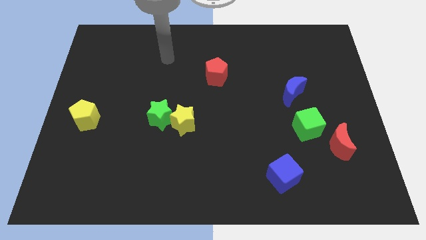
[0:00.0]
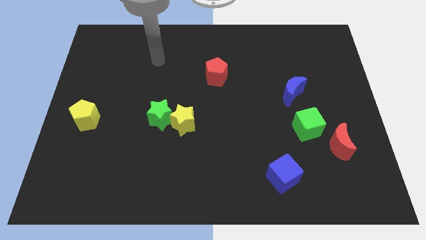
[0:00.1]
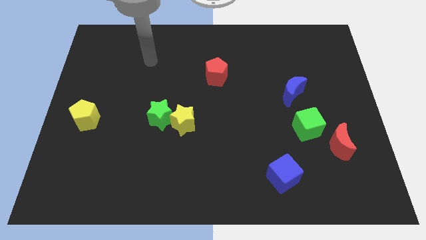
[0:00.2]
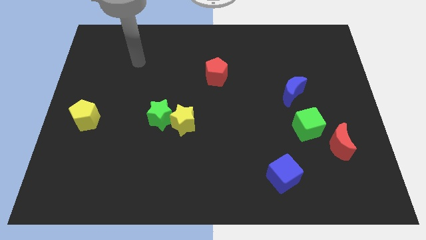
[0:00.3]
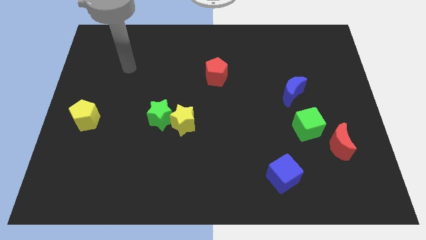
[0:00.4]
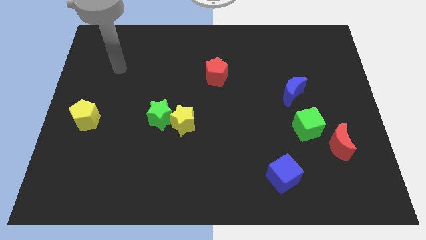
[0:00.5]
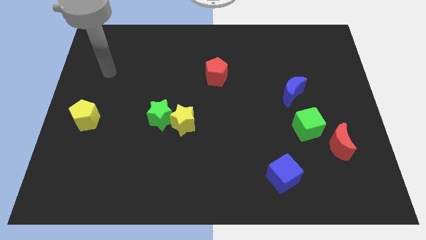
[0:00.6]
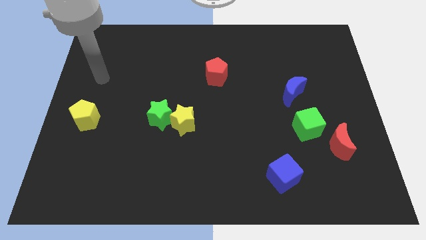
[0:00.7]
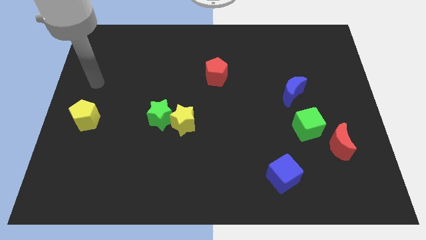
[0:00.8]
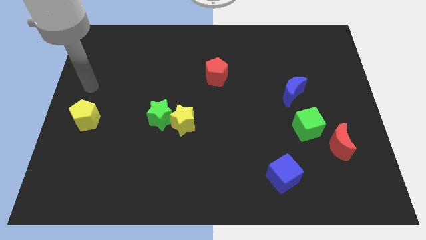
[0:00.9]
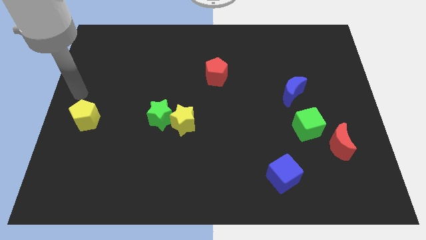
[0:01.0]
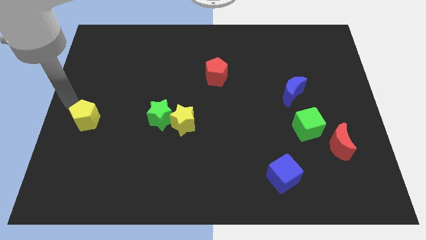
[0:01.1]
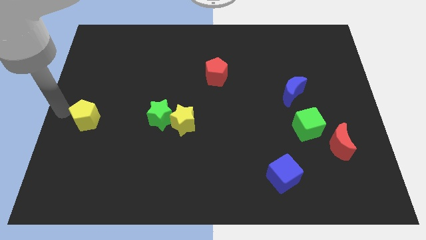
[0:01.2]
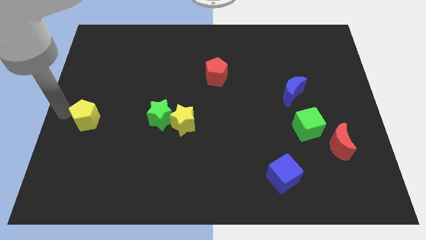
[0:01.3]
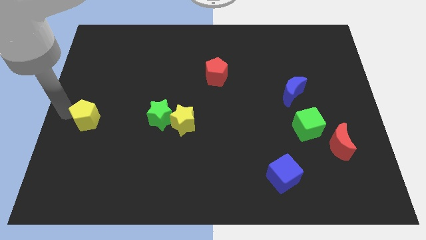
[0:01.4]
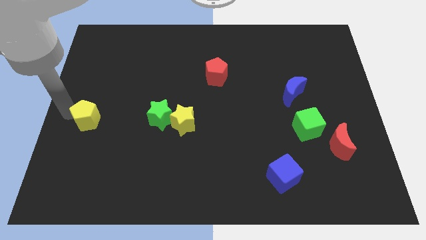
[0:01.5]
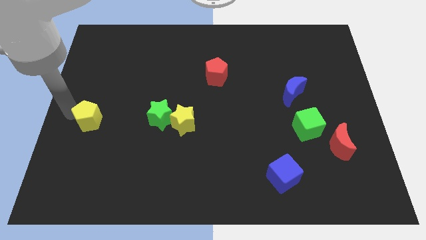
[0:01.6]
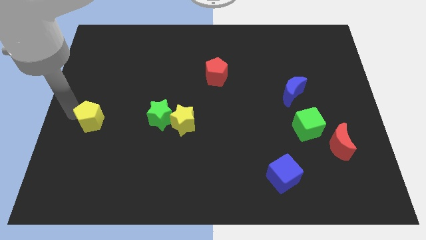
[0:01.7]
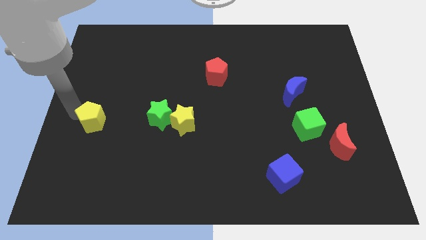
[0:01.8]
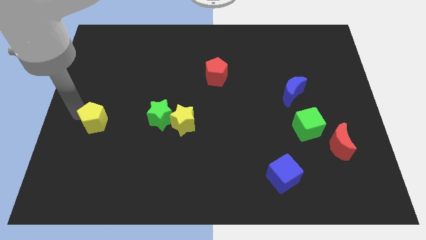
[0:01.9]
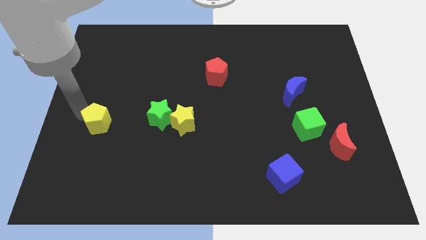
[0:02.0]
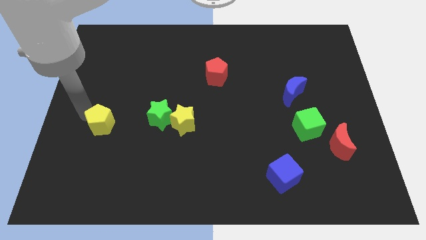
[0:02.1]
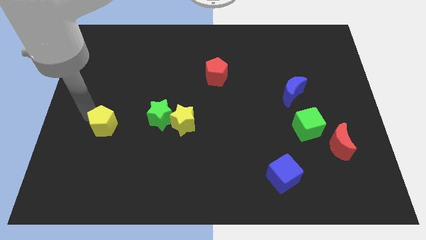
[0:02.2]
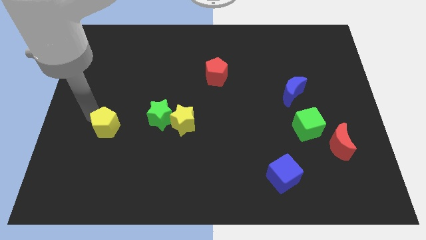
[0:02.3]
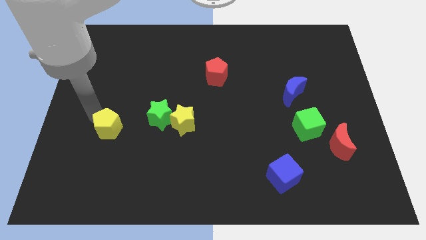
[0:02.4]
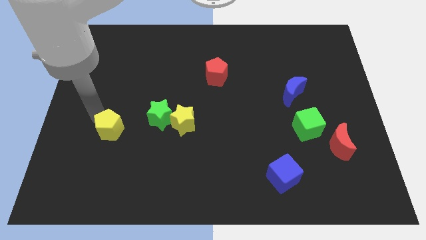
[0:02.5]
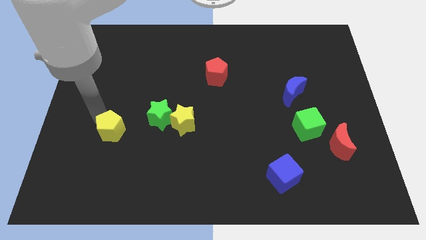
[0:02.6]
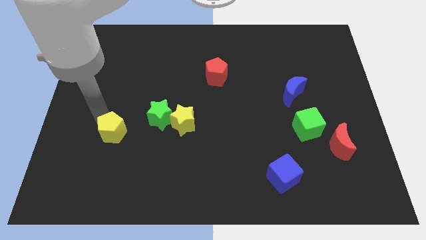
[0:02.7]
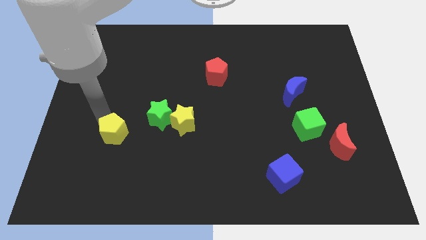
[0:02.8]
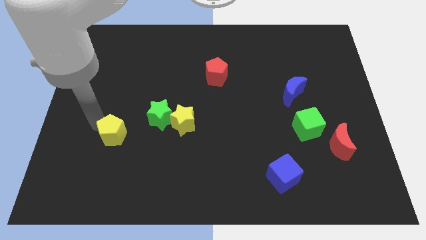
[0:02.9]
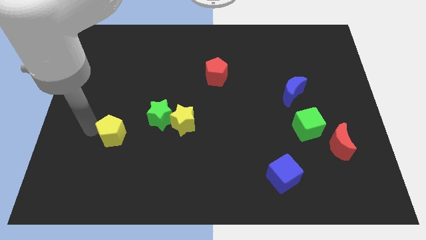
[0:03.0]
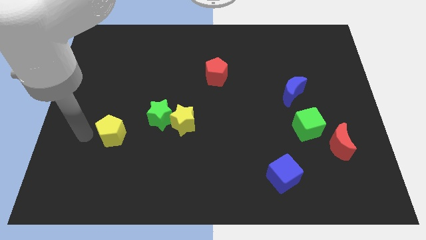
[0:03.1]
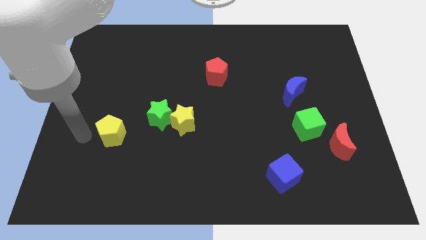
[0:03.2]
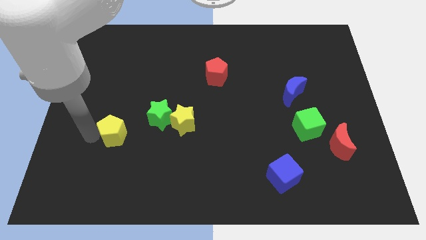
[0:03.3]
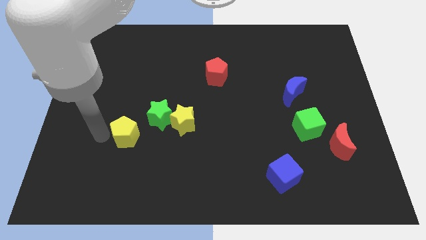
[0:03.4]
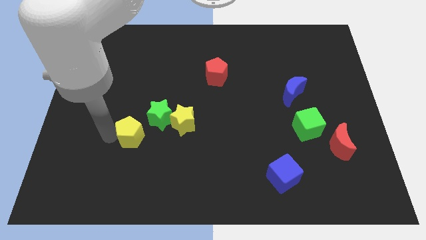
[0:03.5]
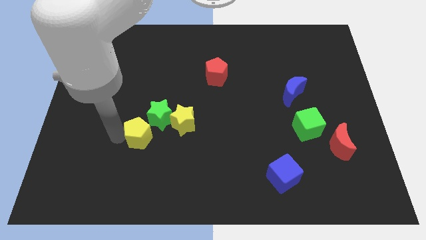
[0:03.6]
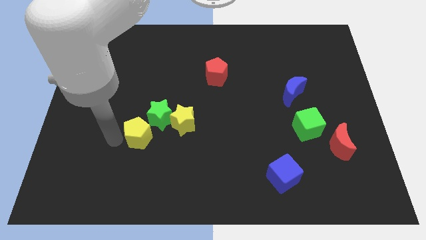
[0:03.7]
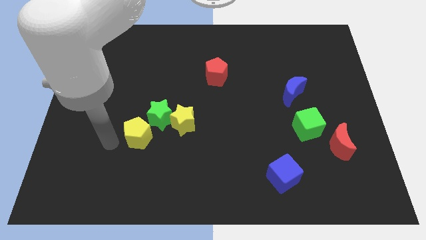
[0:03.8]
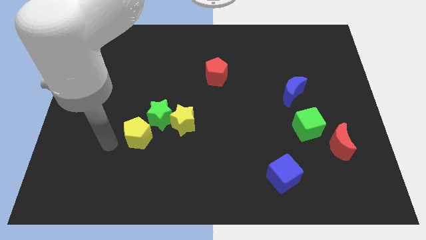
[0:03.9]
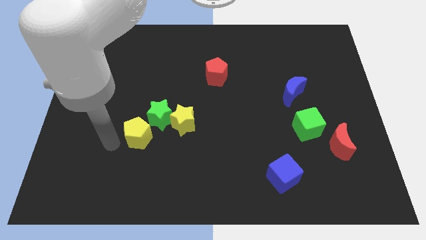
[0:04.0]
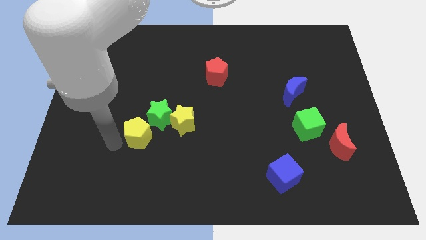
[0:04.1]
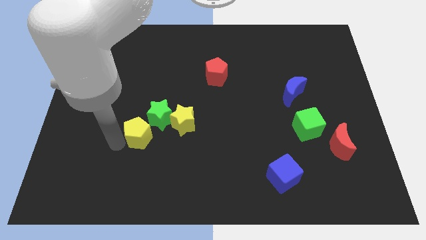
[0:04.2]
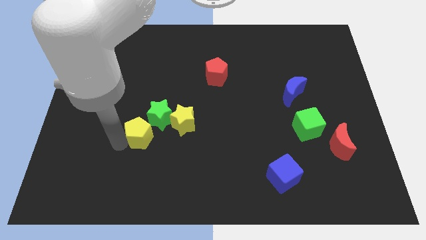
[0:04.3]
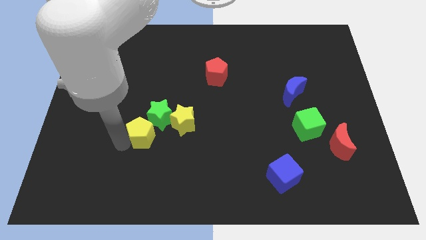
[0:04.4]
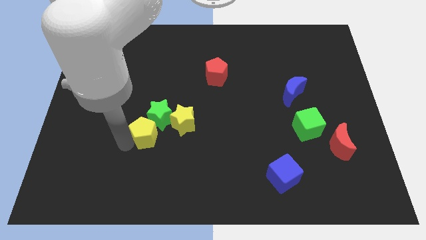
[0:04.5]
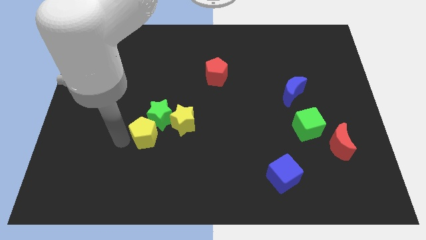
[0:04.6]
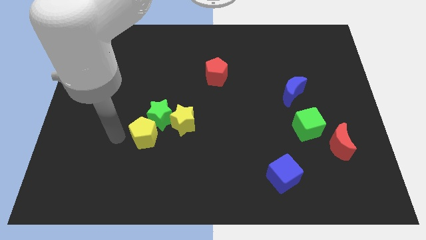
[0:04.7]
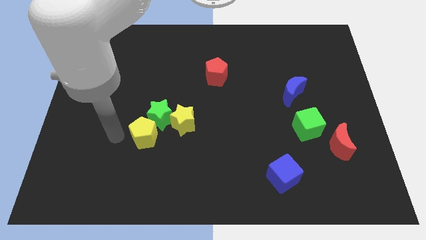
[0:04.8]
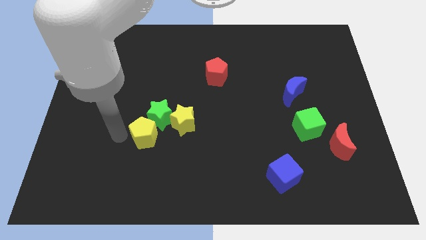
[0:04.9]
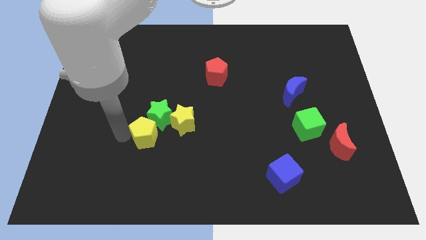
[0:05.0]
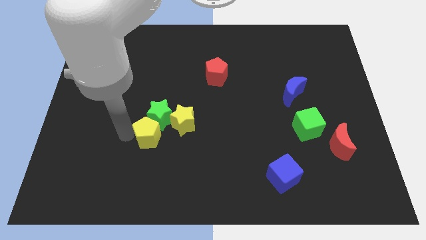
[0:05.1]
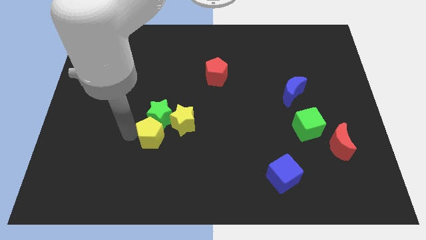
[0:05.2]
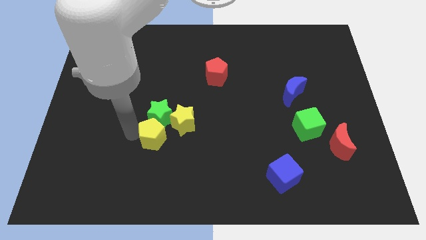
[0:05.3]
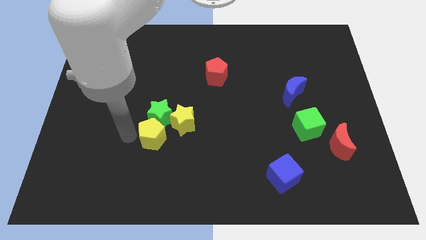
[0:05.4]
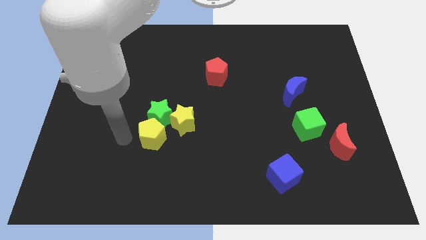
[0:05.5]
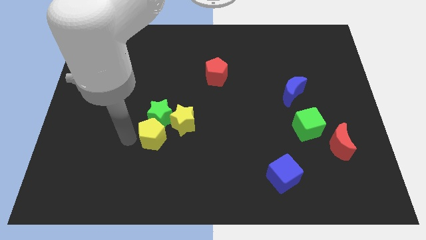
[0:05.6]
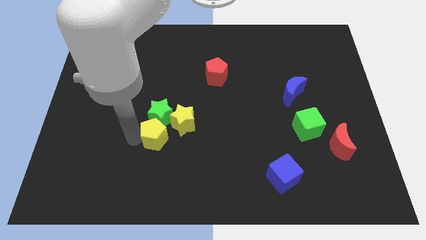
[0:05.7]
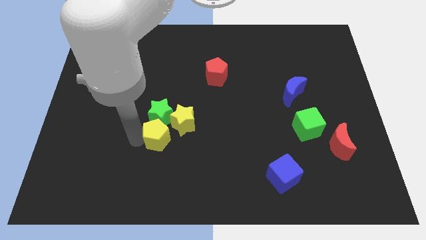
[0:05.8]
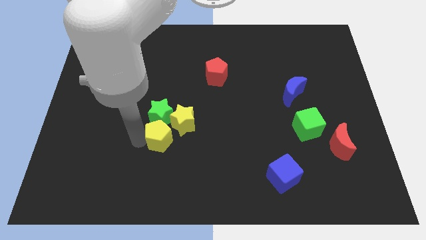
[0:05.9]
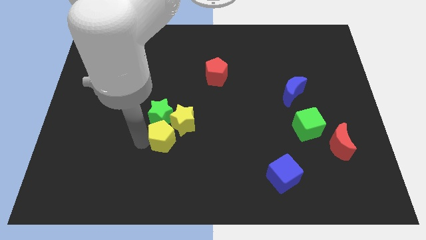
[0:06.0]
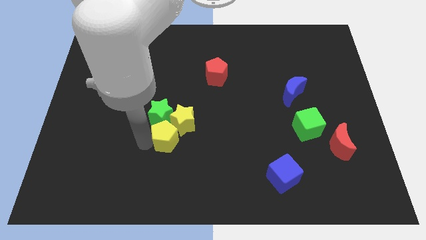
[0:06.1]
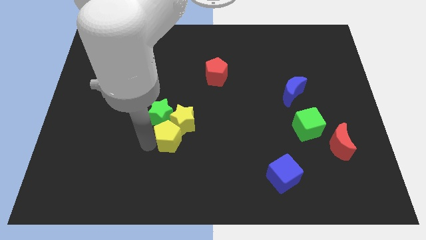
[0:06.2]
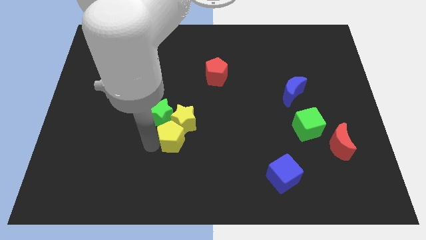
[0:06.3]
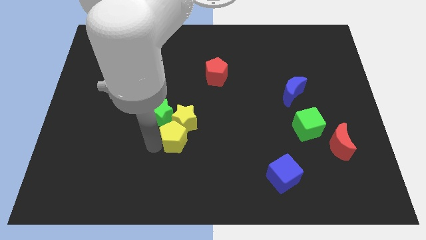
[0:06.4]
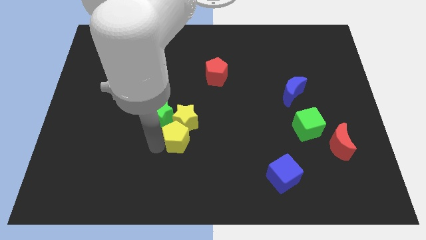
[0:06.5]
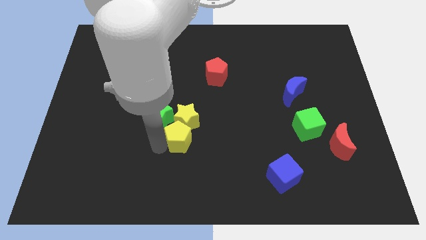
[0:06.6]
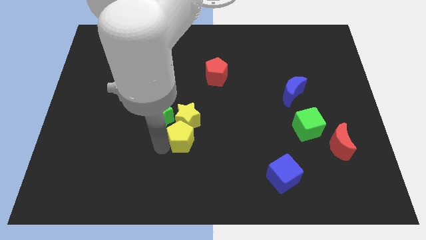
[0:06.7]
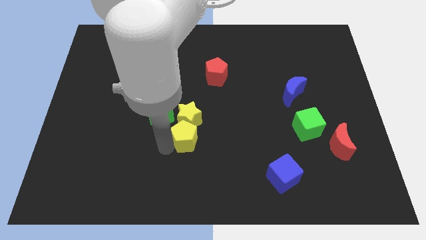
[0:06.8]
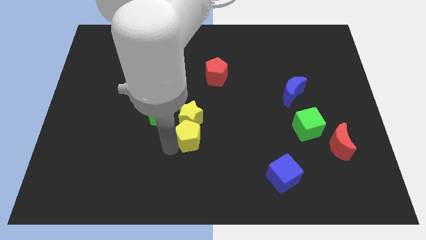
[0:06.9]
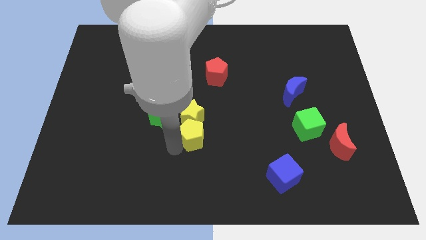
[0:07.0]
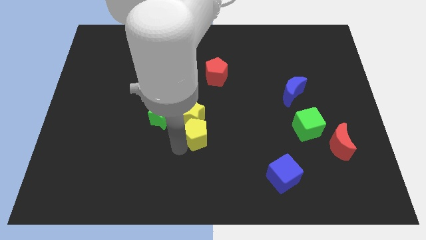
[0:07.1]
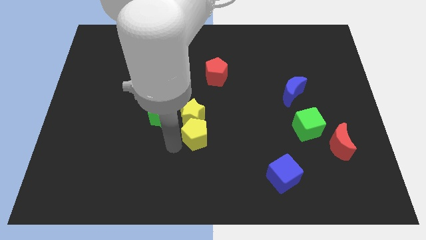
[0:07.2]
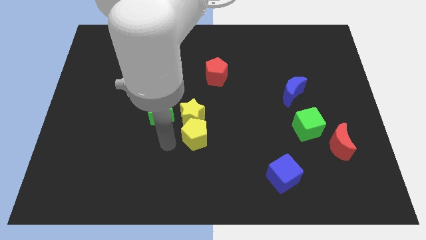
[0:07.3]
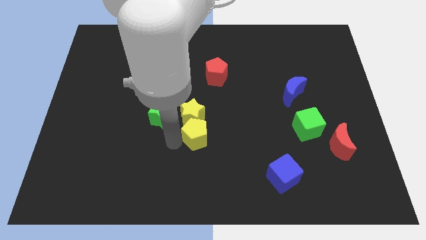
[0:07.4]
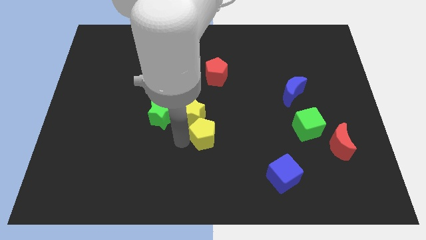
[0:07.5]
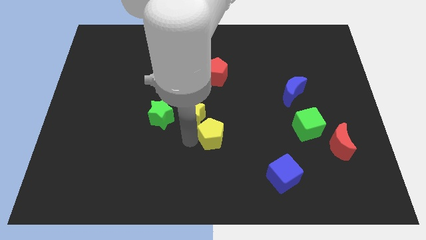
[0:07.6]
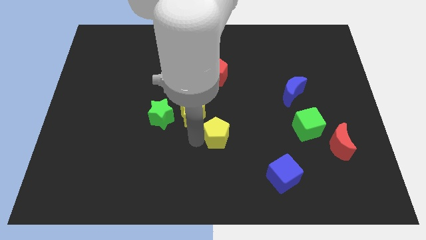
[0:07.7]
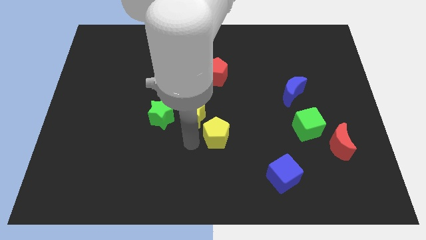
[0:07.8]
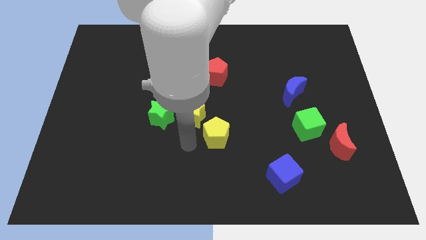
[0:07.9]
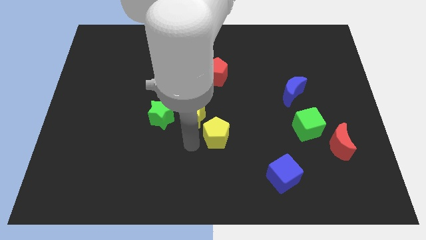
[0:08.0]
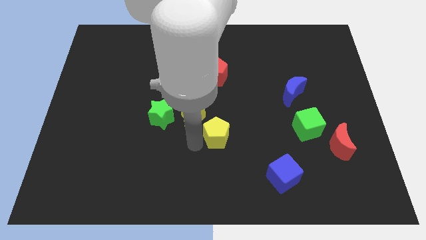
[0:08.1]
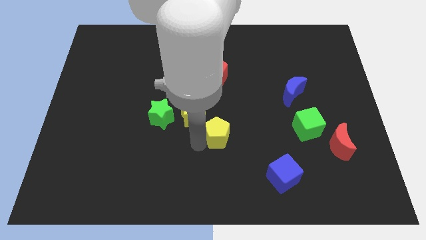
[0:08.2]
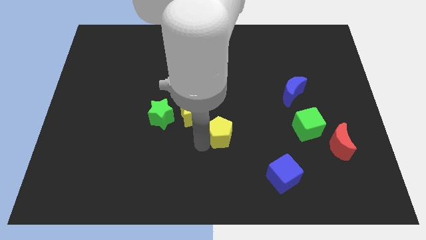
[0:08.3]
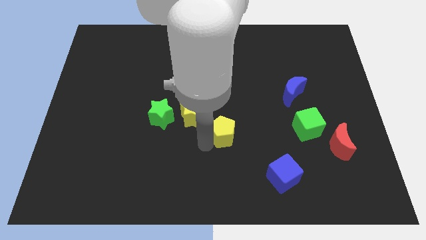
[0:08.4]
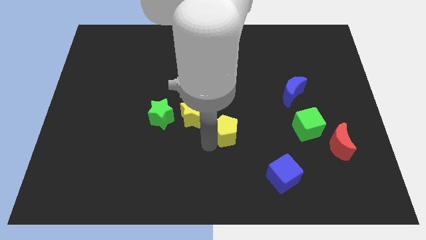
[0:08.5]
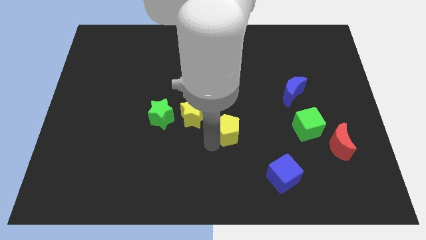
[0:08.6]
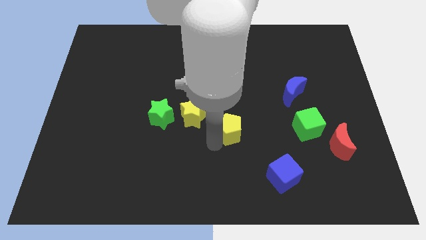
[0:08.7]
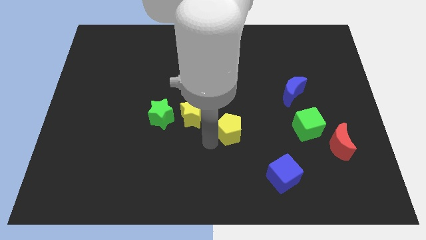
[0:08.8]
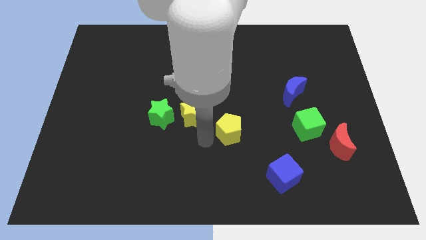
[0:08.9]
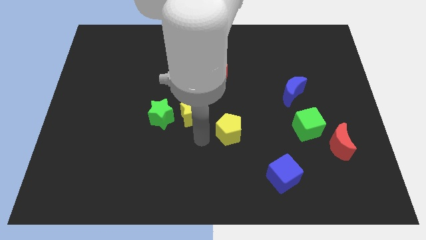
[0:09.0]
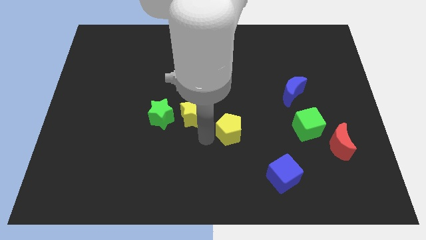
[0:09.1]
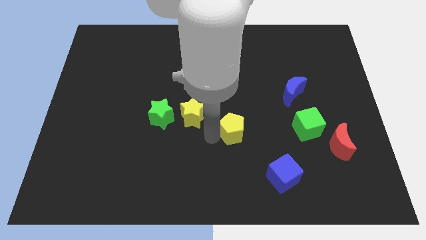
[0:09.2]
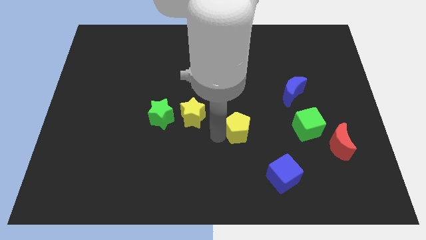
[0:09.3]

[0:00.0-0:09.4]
push the yellow pentagon left of the green cube
